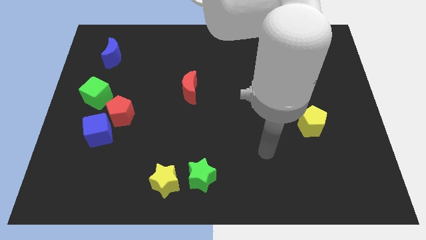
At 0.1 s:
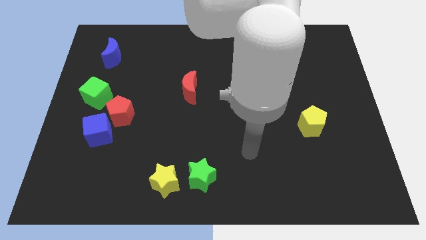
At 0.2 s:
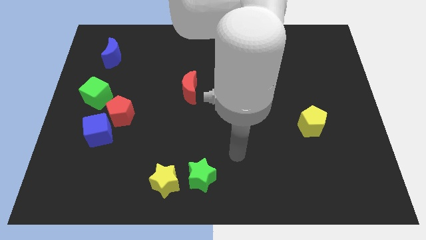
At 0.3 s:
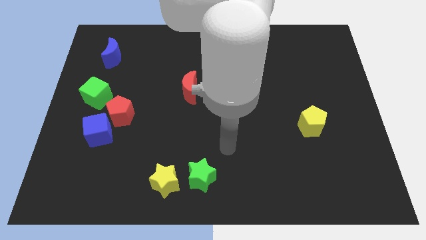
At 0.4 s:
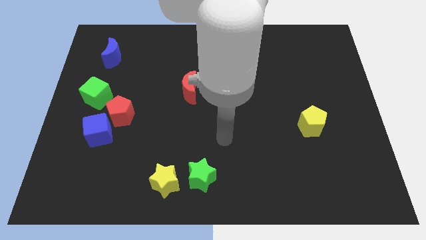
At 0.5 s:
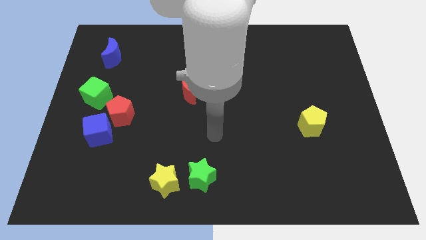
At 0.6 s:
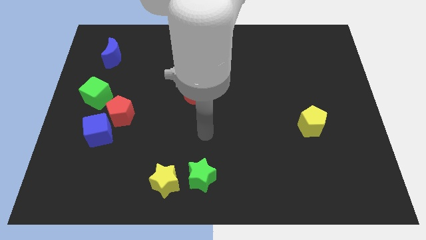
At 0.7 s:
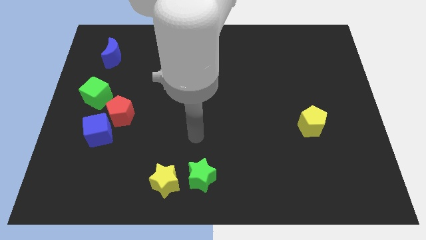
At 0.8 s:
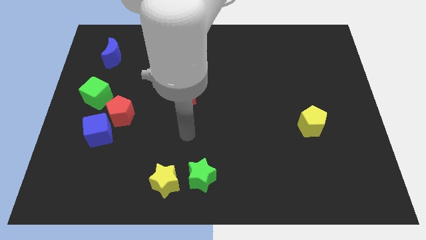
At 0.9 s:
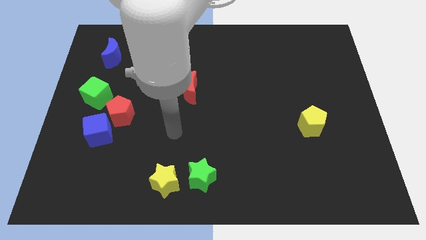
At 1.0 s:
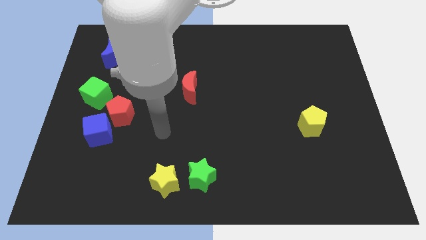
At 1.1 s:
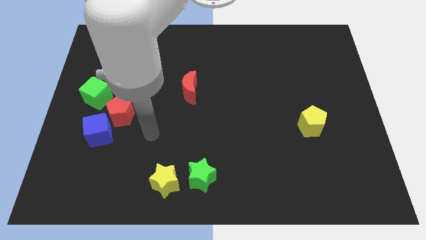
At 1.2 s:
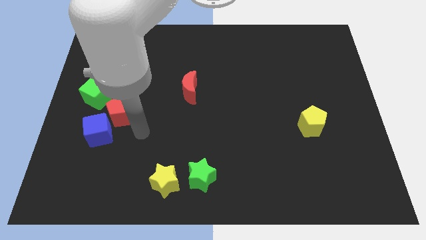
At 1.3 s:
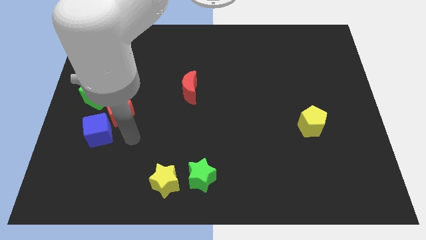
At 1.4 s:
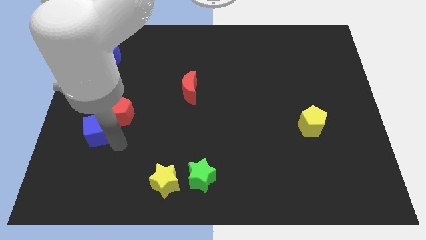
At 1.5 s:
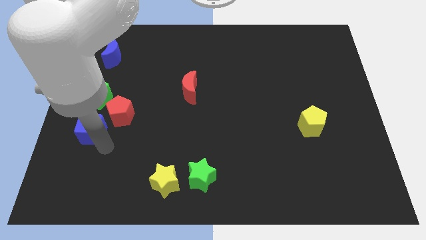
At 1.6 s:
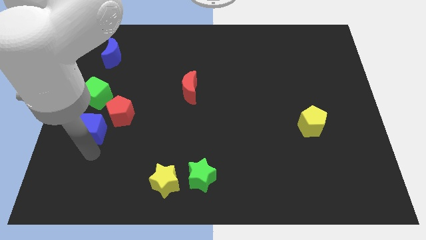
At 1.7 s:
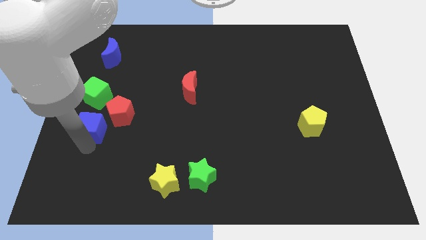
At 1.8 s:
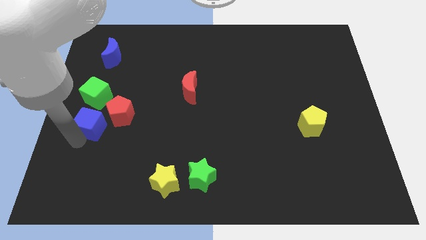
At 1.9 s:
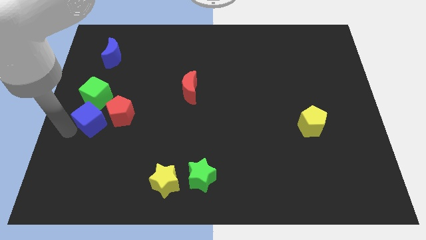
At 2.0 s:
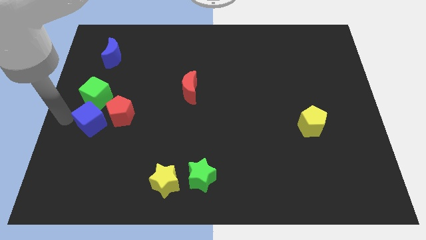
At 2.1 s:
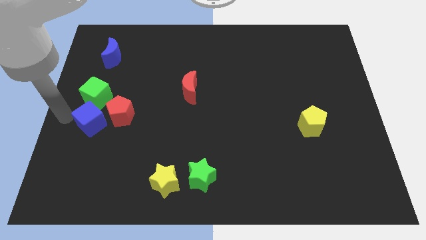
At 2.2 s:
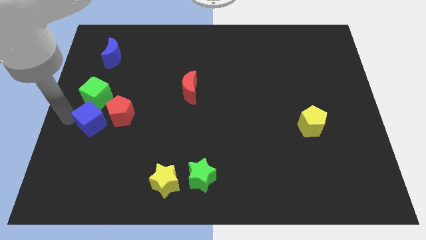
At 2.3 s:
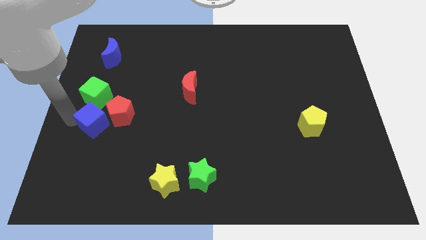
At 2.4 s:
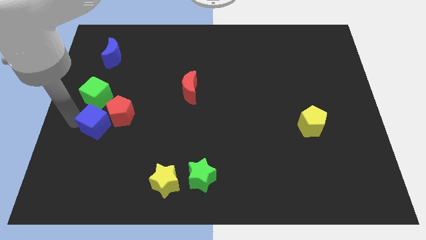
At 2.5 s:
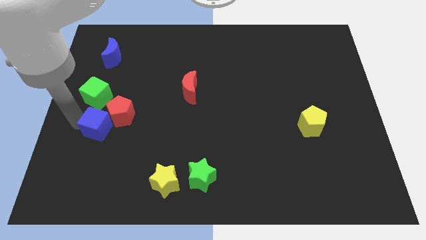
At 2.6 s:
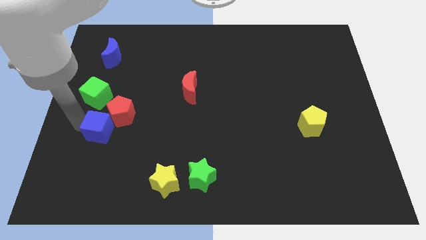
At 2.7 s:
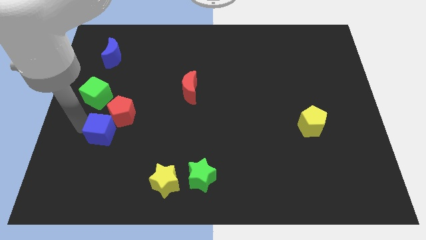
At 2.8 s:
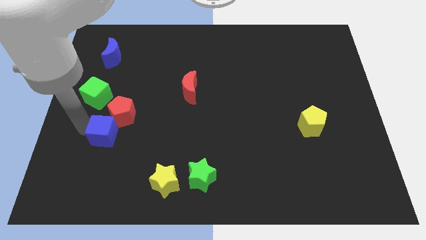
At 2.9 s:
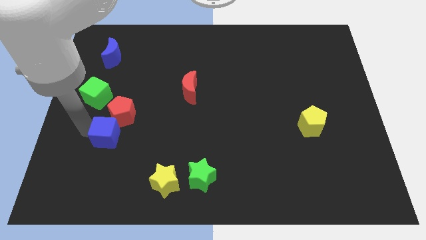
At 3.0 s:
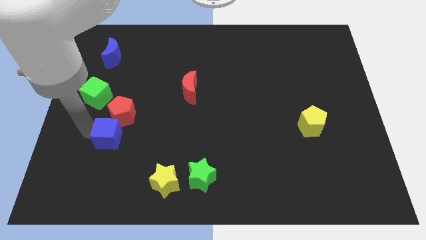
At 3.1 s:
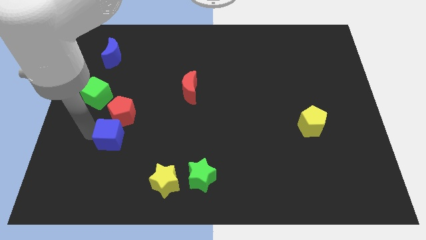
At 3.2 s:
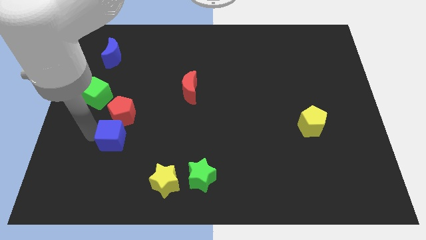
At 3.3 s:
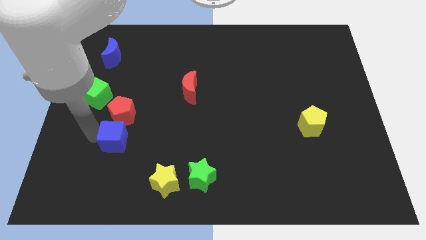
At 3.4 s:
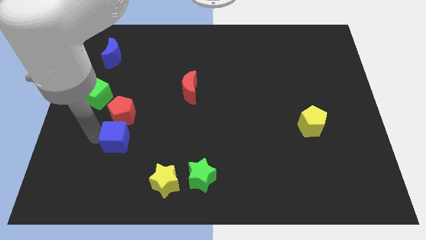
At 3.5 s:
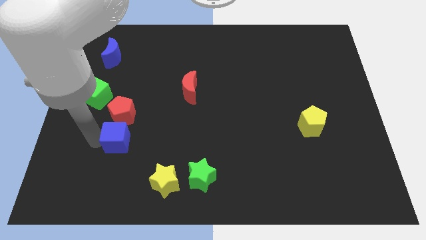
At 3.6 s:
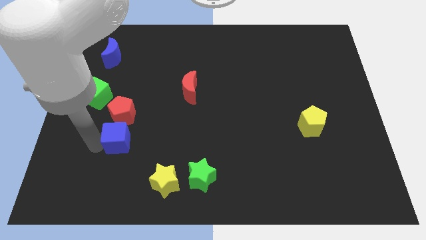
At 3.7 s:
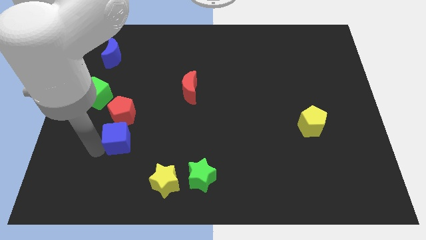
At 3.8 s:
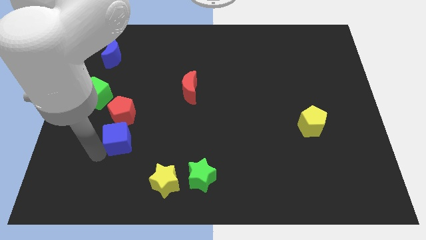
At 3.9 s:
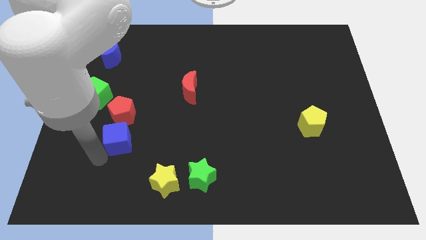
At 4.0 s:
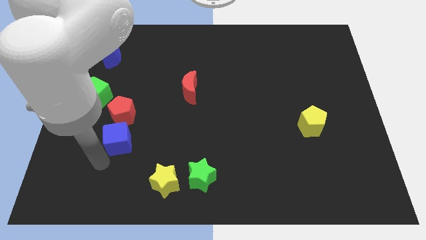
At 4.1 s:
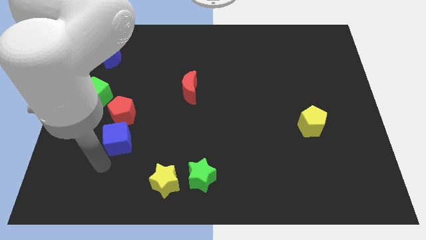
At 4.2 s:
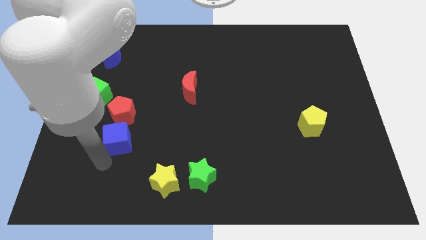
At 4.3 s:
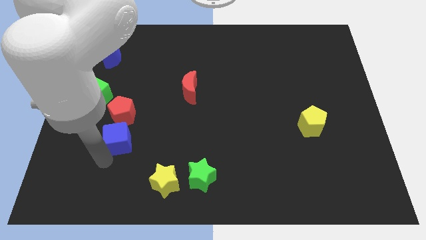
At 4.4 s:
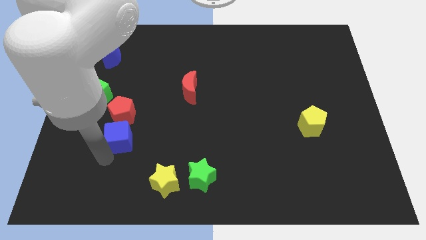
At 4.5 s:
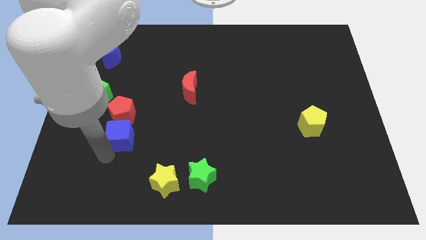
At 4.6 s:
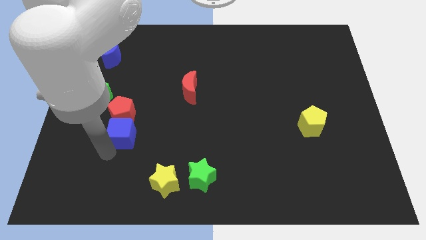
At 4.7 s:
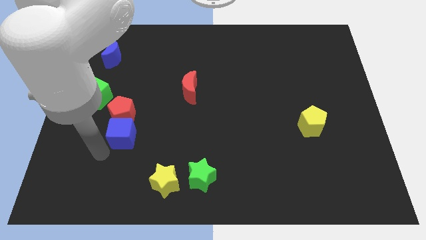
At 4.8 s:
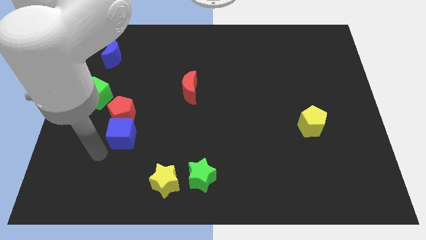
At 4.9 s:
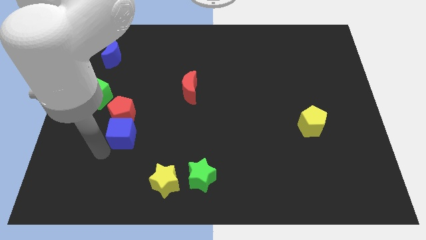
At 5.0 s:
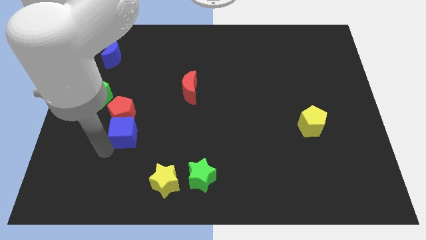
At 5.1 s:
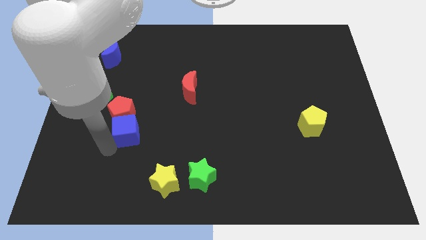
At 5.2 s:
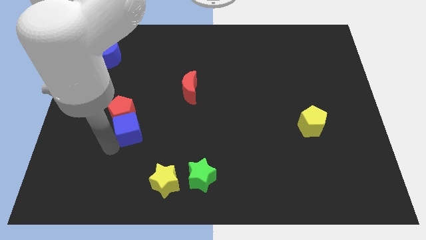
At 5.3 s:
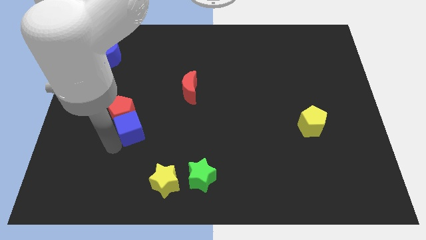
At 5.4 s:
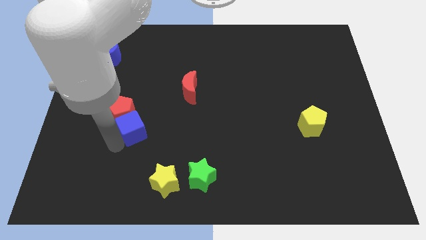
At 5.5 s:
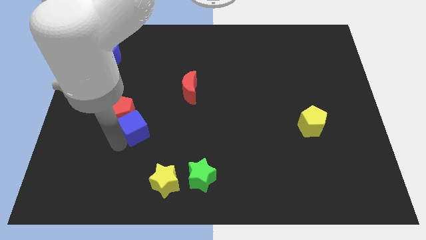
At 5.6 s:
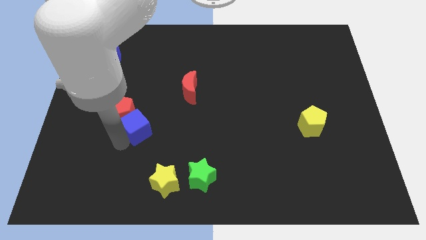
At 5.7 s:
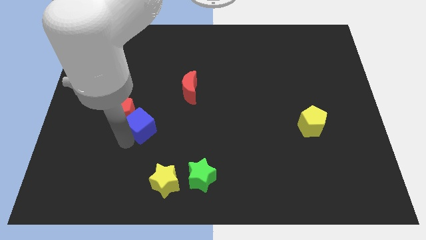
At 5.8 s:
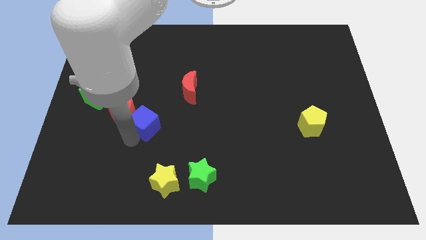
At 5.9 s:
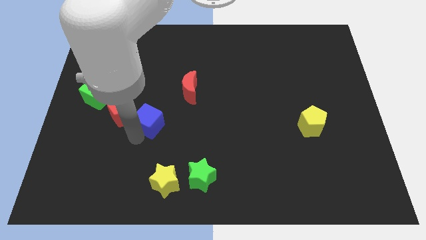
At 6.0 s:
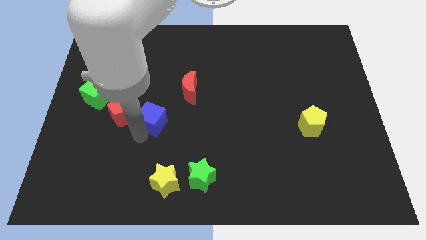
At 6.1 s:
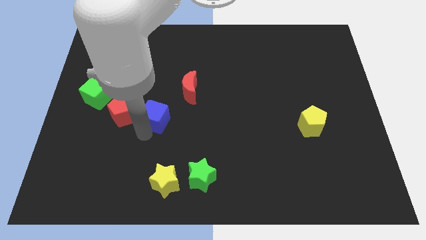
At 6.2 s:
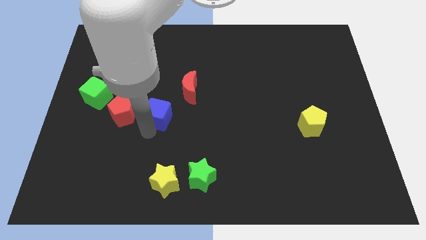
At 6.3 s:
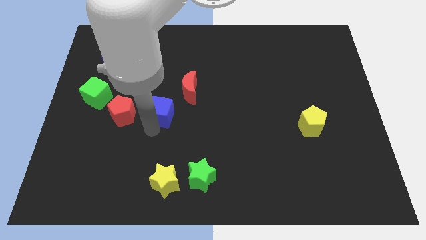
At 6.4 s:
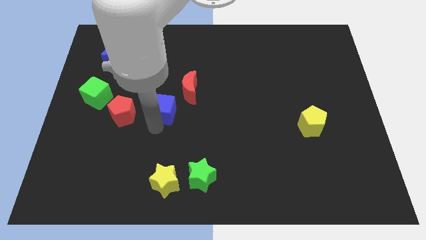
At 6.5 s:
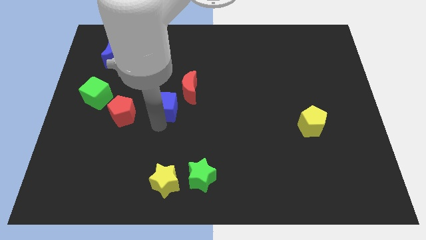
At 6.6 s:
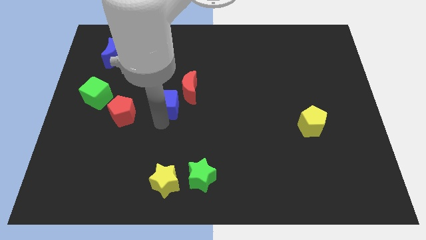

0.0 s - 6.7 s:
move the blue cube to the left side of the red moon
